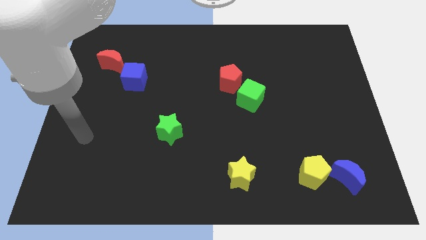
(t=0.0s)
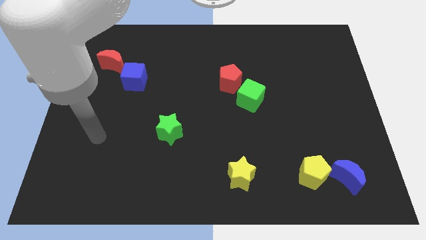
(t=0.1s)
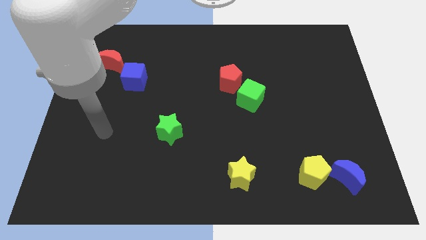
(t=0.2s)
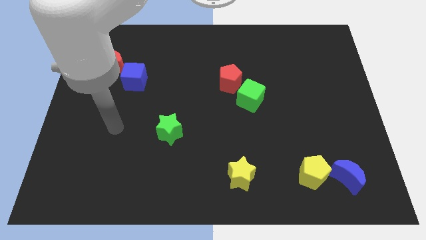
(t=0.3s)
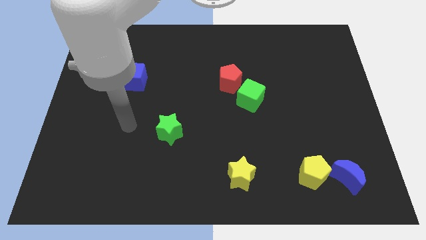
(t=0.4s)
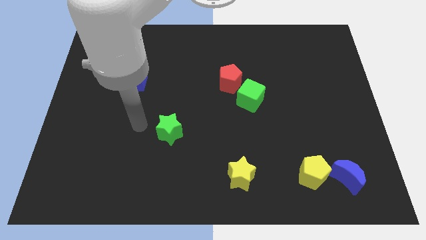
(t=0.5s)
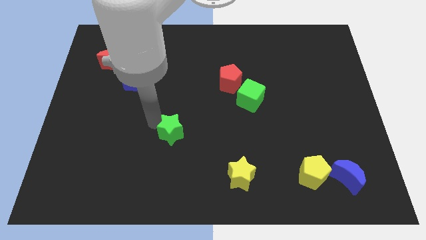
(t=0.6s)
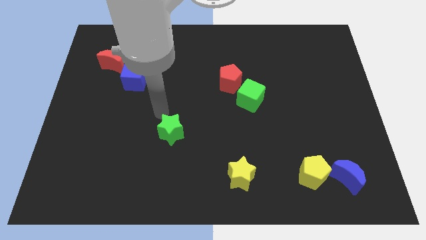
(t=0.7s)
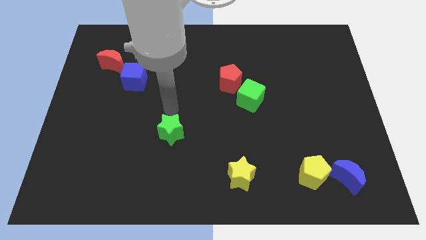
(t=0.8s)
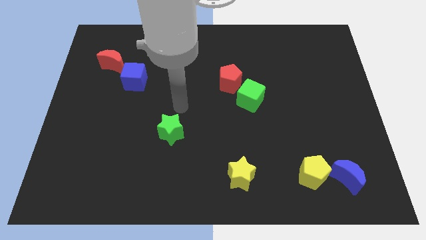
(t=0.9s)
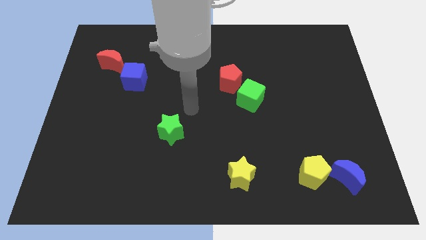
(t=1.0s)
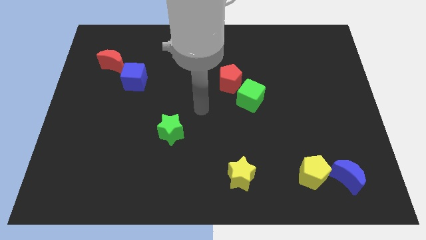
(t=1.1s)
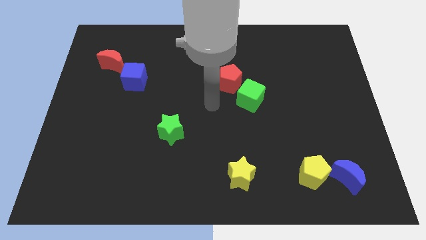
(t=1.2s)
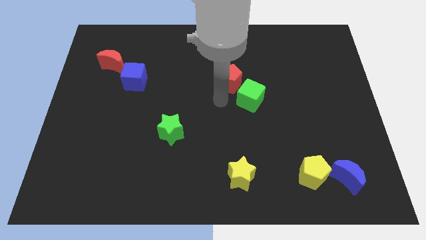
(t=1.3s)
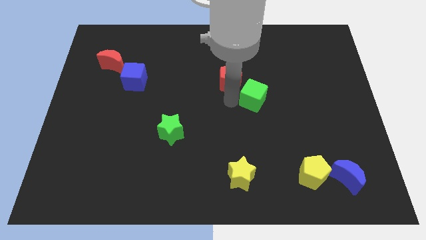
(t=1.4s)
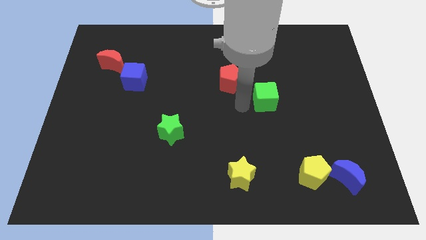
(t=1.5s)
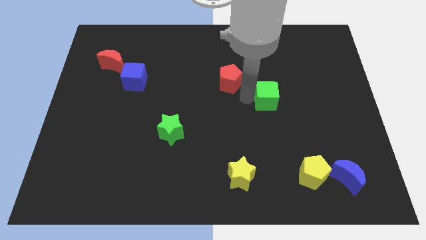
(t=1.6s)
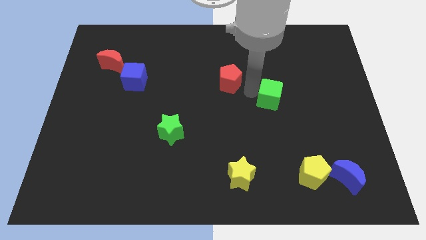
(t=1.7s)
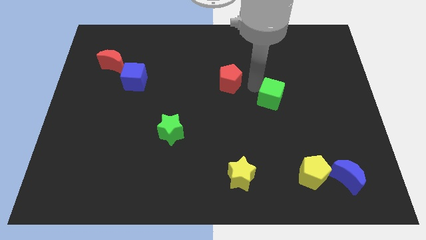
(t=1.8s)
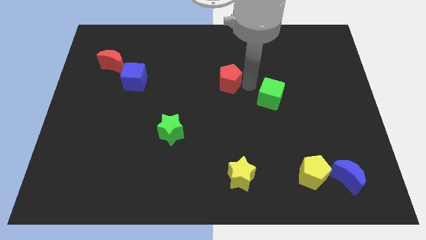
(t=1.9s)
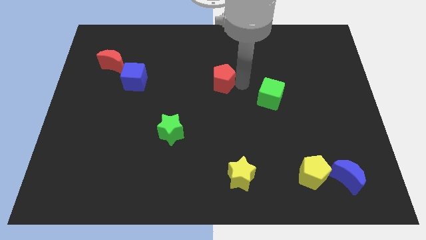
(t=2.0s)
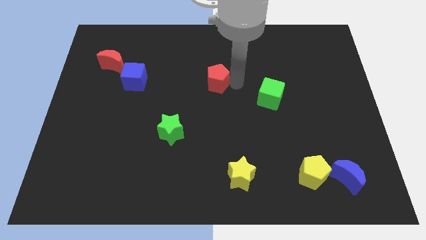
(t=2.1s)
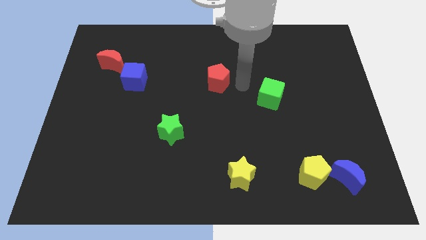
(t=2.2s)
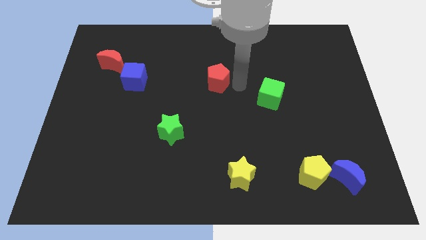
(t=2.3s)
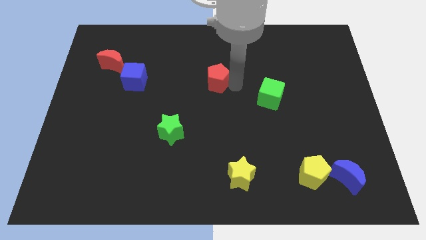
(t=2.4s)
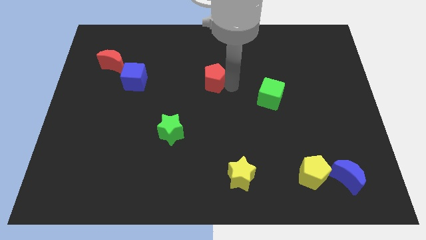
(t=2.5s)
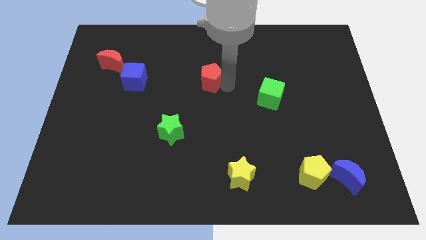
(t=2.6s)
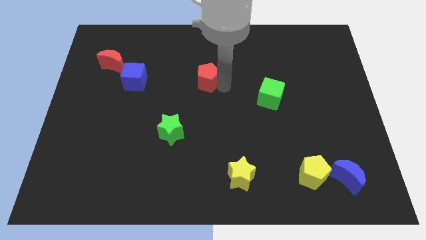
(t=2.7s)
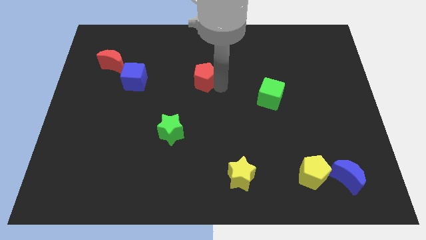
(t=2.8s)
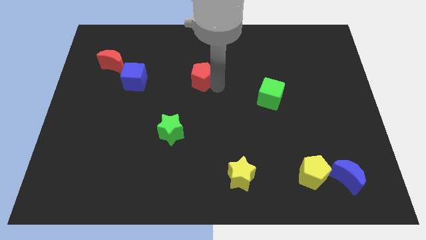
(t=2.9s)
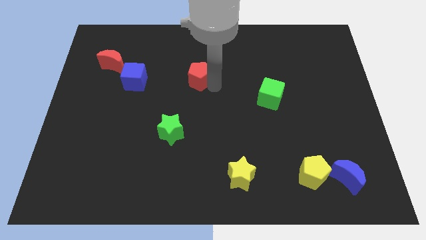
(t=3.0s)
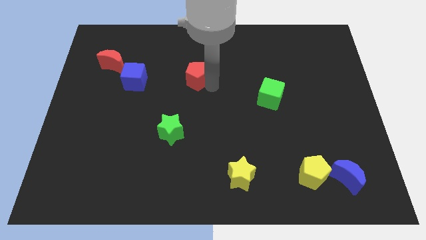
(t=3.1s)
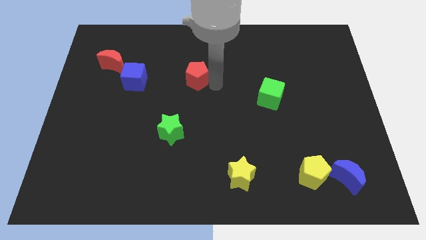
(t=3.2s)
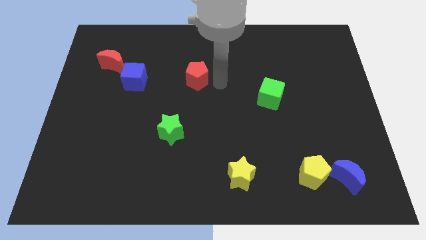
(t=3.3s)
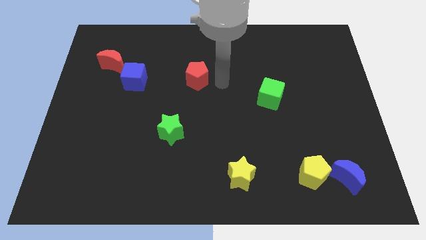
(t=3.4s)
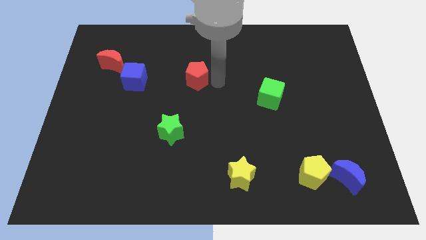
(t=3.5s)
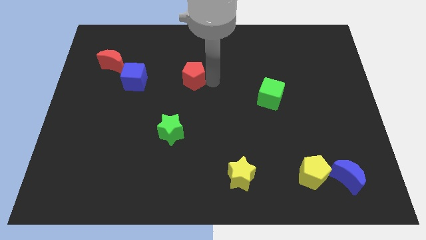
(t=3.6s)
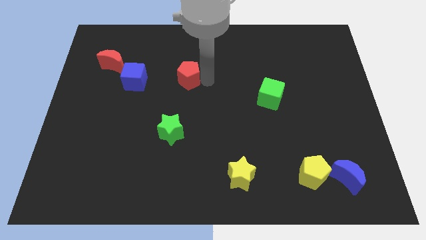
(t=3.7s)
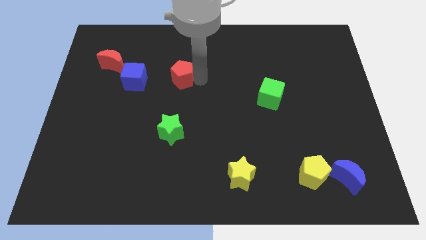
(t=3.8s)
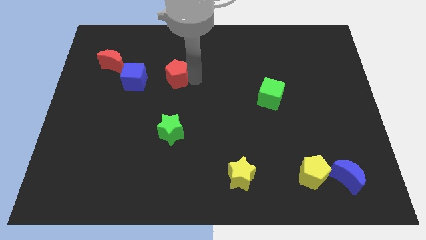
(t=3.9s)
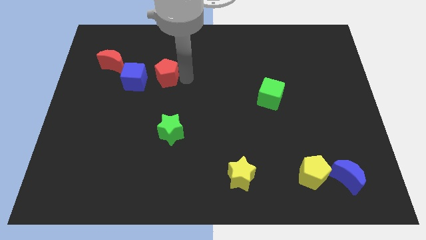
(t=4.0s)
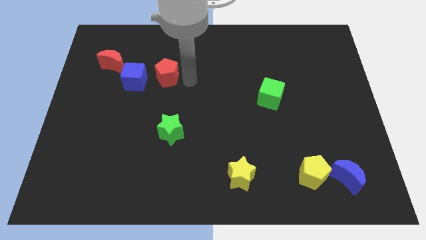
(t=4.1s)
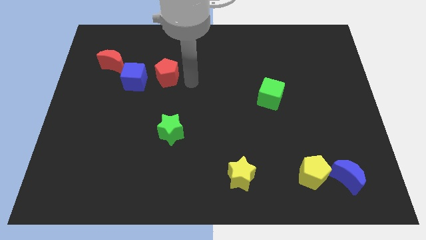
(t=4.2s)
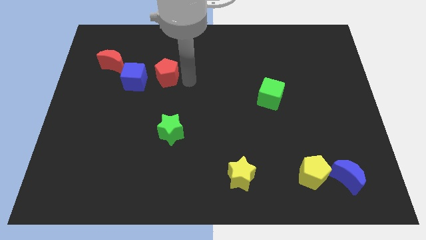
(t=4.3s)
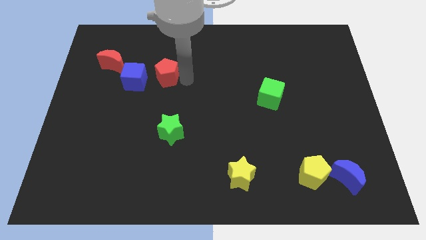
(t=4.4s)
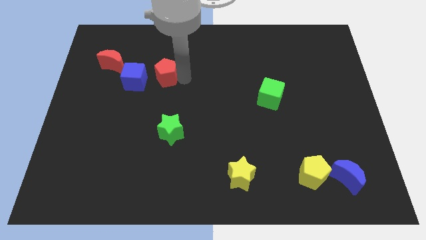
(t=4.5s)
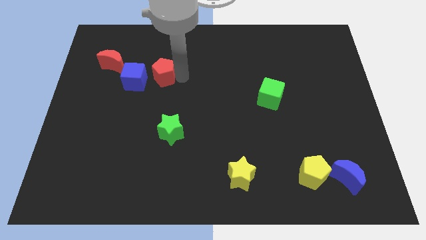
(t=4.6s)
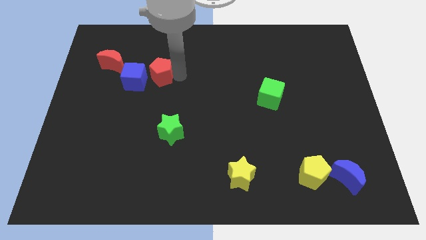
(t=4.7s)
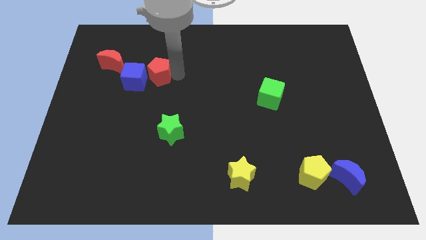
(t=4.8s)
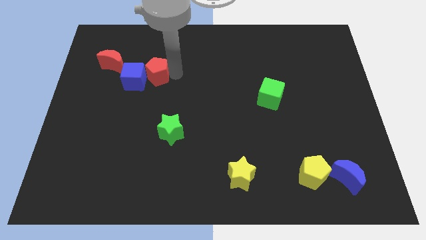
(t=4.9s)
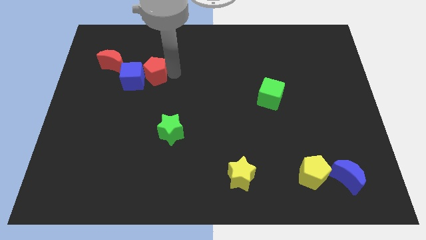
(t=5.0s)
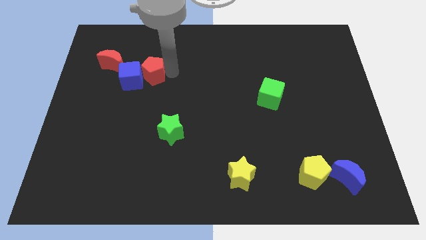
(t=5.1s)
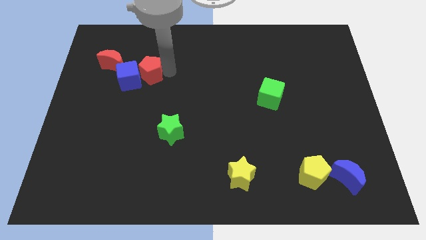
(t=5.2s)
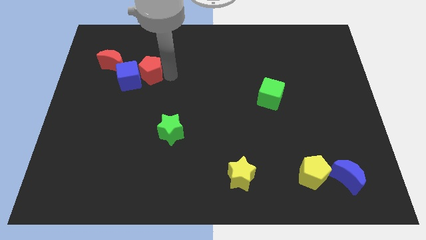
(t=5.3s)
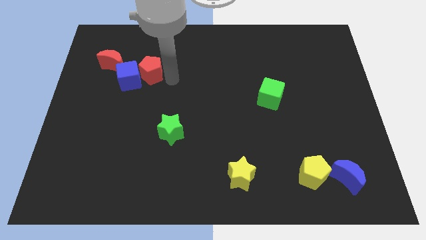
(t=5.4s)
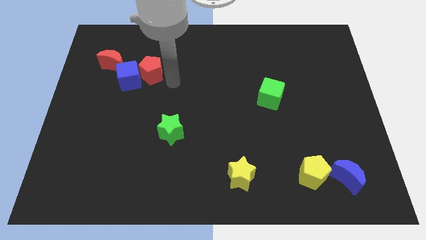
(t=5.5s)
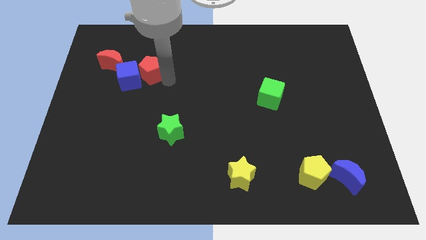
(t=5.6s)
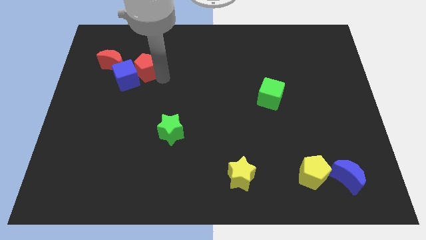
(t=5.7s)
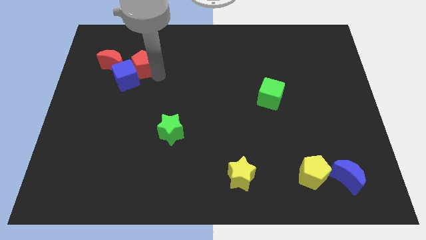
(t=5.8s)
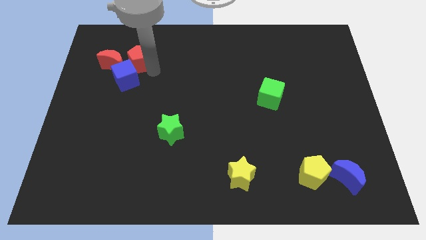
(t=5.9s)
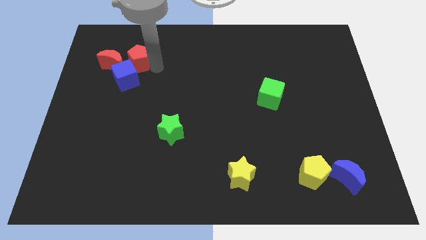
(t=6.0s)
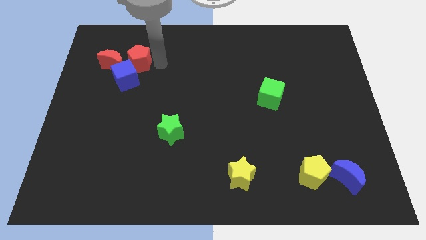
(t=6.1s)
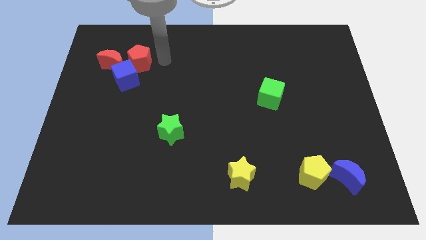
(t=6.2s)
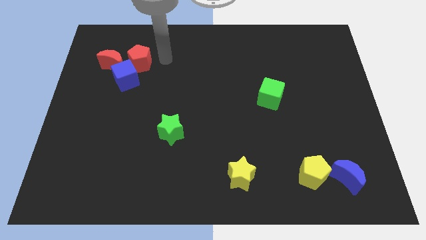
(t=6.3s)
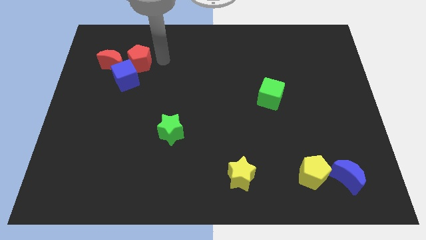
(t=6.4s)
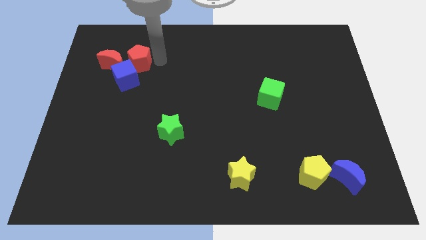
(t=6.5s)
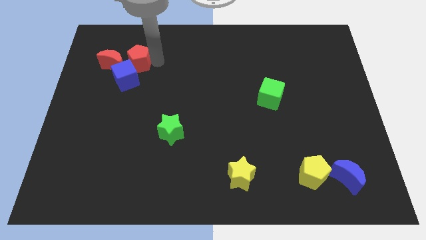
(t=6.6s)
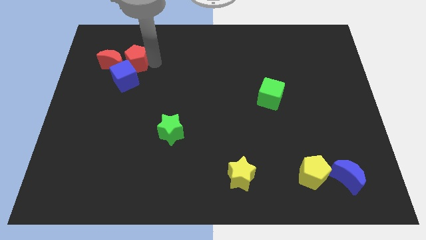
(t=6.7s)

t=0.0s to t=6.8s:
put the red pentagon to the red moon

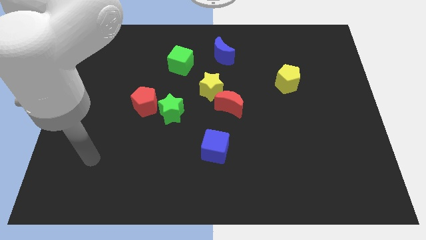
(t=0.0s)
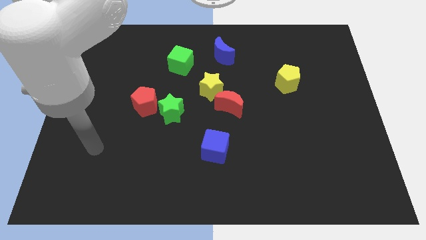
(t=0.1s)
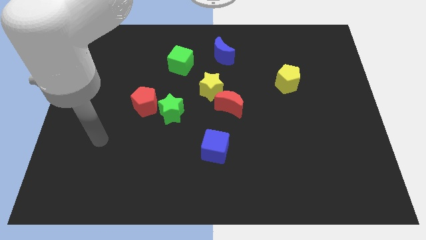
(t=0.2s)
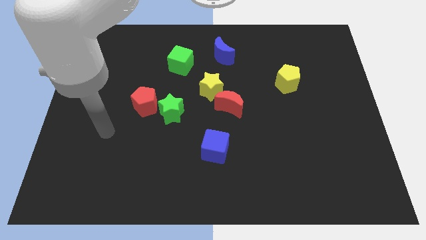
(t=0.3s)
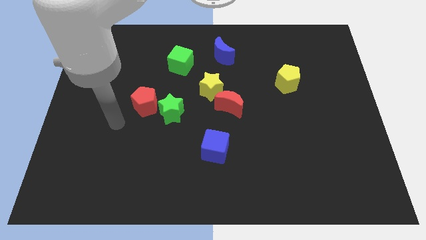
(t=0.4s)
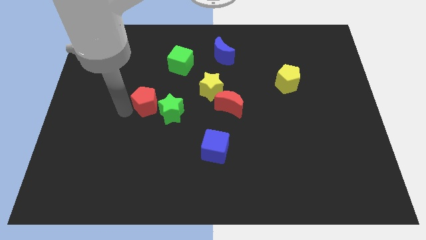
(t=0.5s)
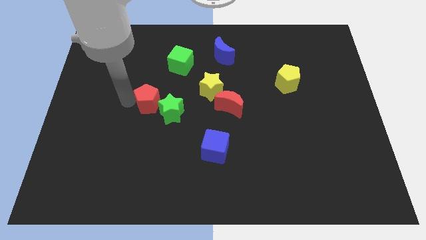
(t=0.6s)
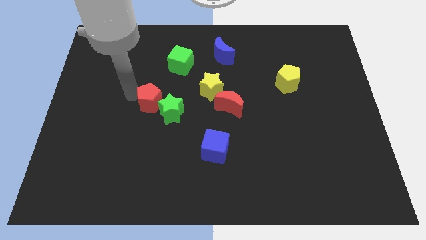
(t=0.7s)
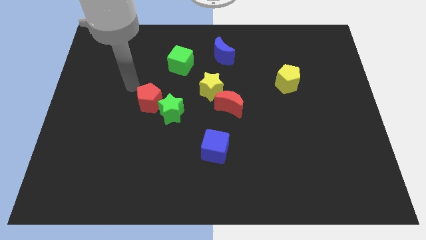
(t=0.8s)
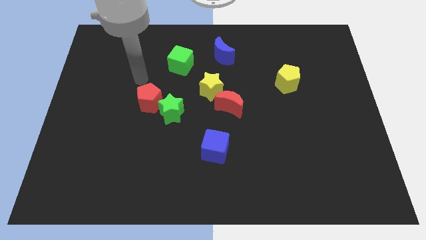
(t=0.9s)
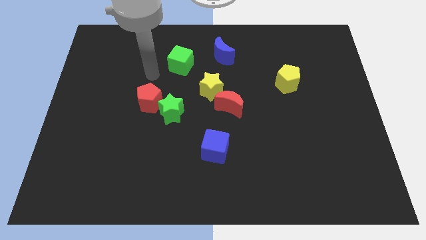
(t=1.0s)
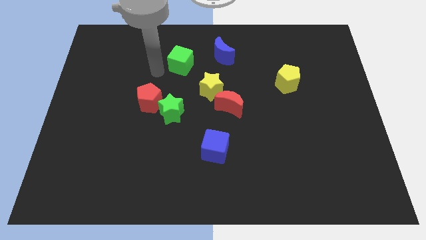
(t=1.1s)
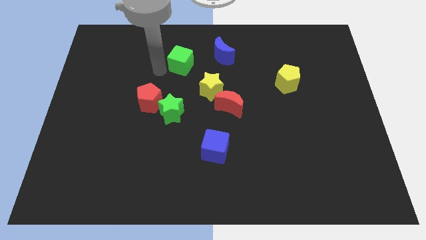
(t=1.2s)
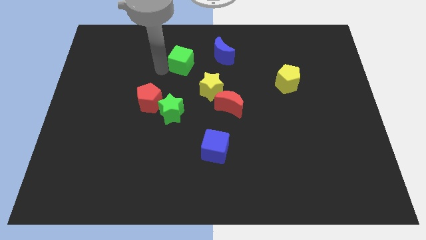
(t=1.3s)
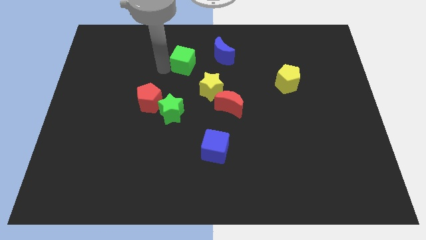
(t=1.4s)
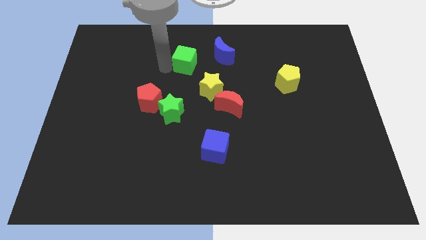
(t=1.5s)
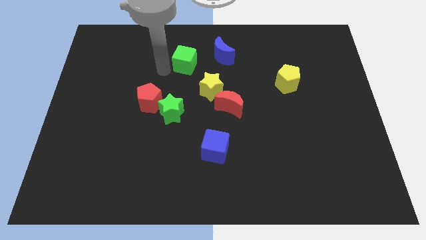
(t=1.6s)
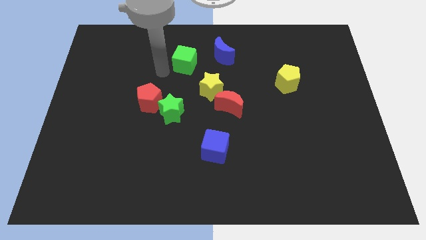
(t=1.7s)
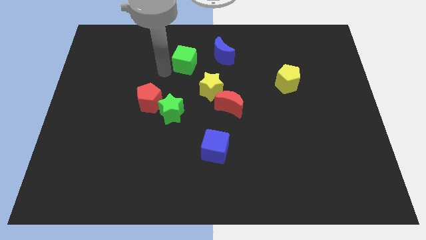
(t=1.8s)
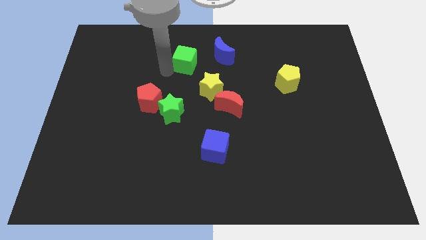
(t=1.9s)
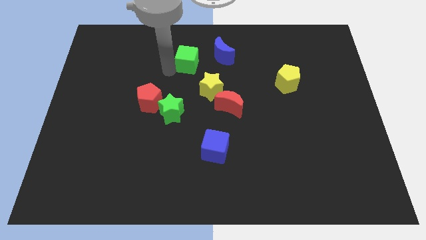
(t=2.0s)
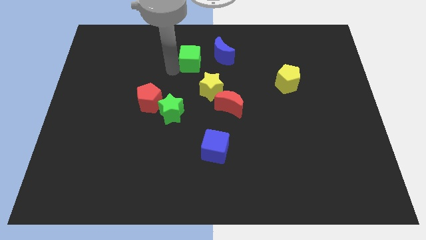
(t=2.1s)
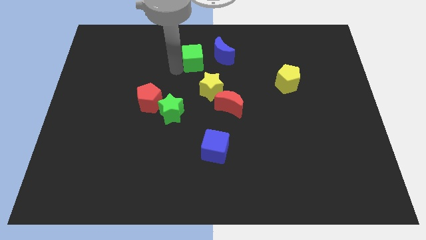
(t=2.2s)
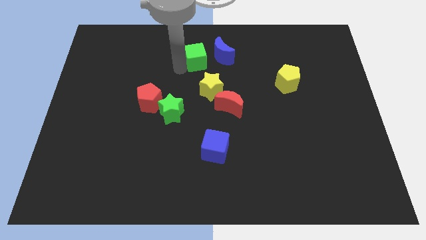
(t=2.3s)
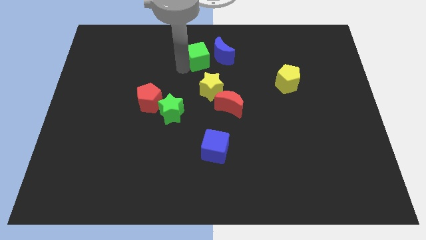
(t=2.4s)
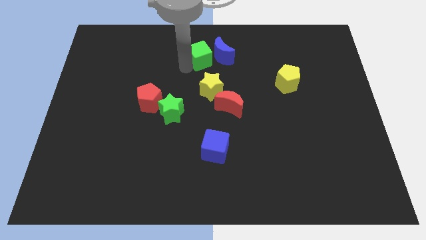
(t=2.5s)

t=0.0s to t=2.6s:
move the green cube close to the blue moon
